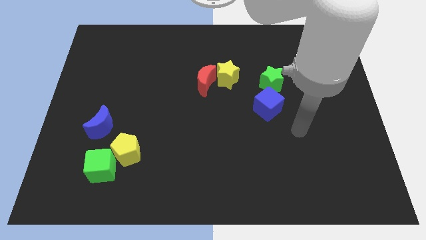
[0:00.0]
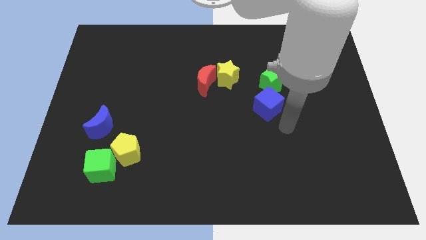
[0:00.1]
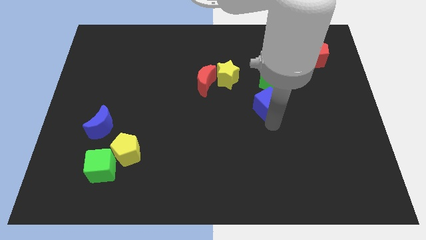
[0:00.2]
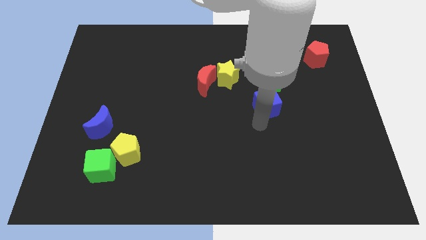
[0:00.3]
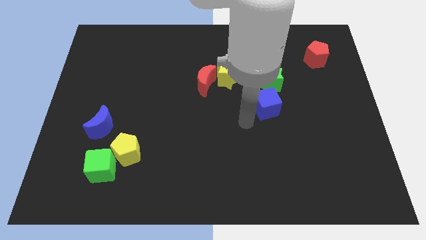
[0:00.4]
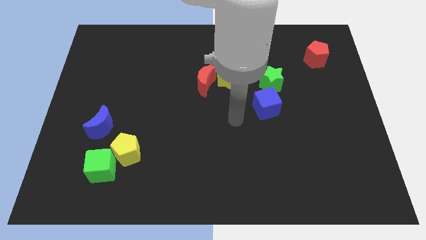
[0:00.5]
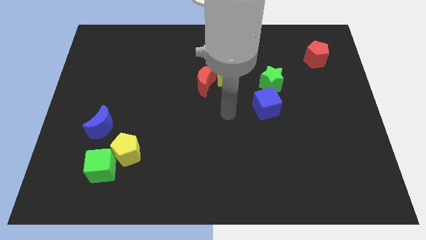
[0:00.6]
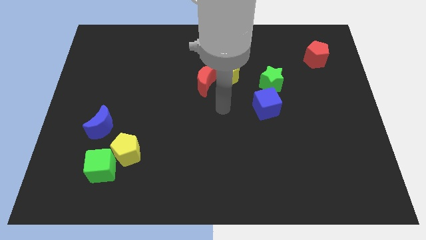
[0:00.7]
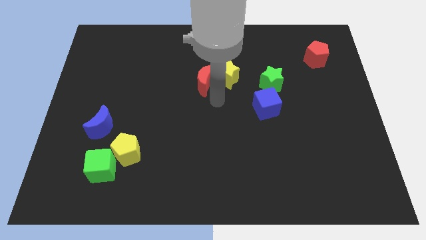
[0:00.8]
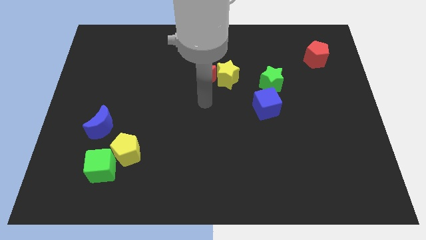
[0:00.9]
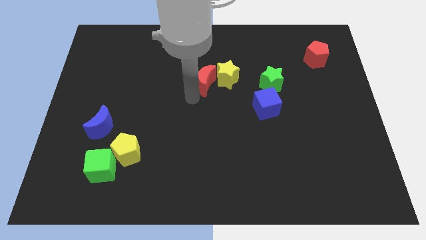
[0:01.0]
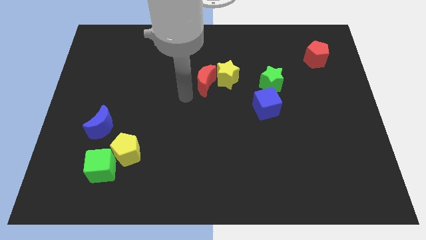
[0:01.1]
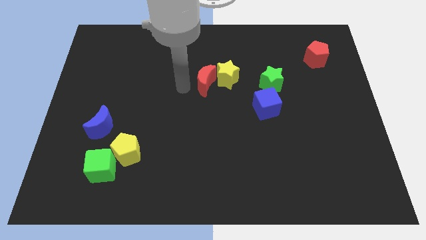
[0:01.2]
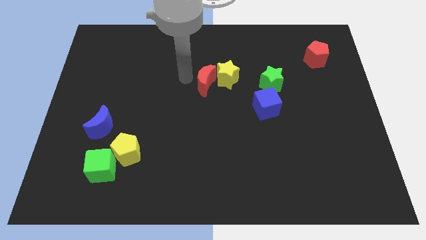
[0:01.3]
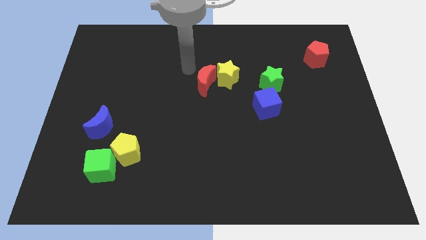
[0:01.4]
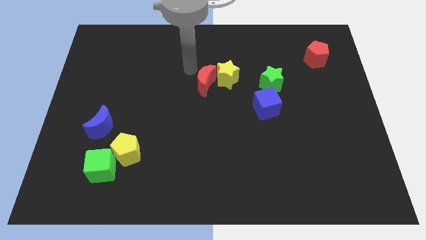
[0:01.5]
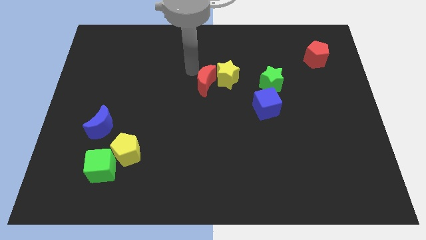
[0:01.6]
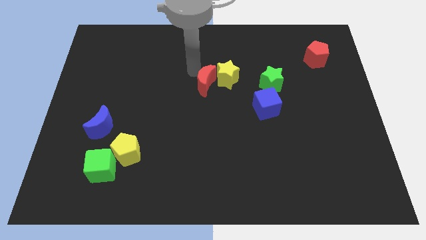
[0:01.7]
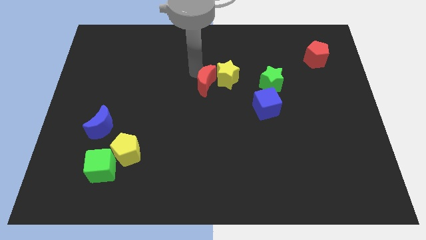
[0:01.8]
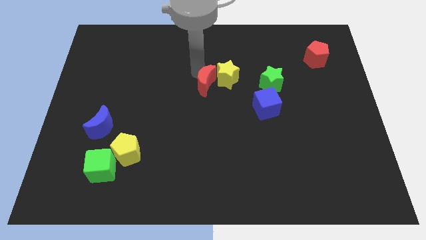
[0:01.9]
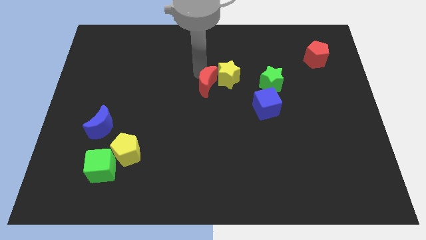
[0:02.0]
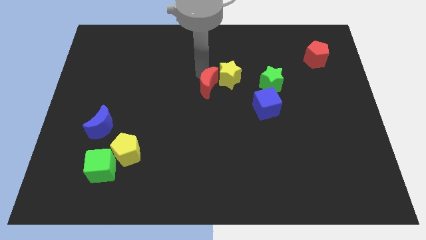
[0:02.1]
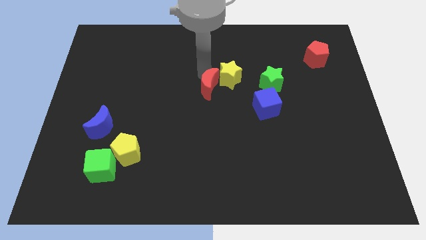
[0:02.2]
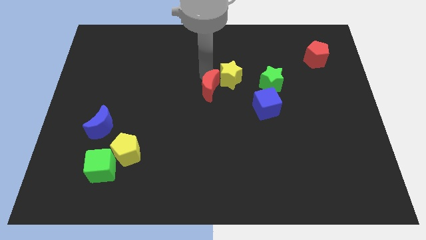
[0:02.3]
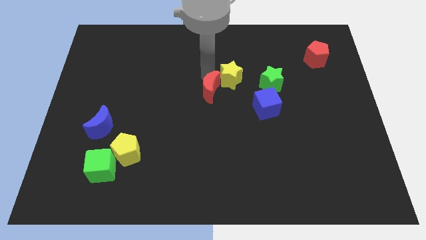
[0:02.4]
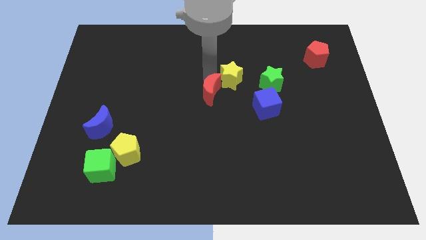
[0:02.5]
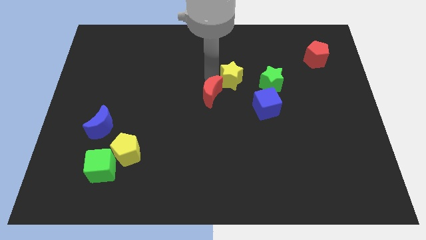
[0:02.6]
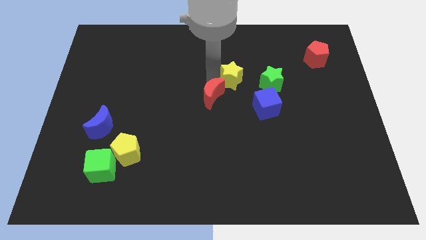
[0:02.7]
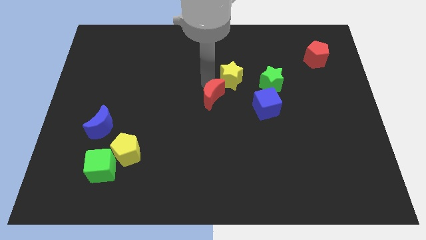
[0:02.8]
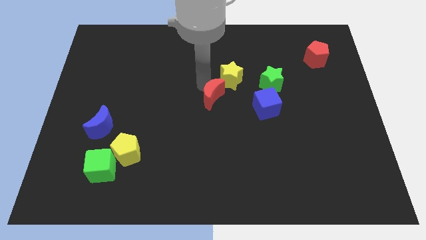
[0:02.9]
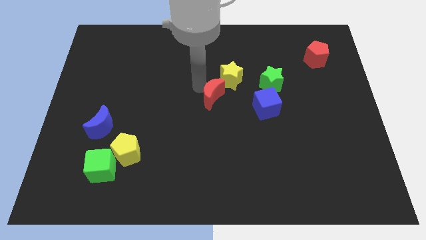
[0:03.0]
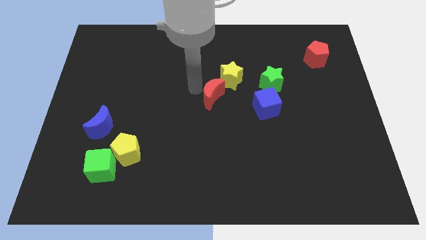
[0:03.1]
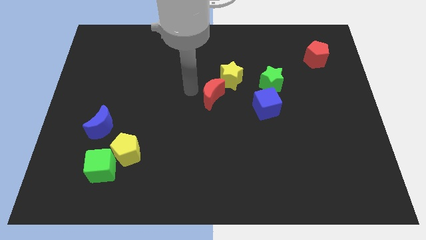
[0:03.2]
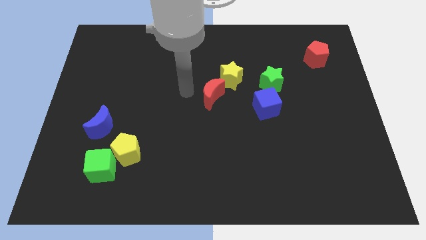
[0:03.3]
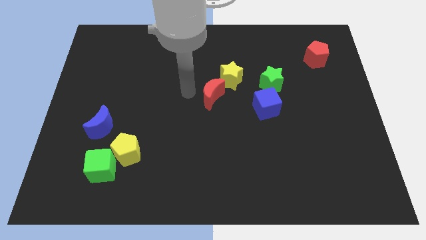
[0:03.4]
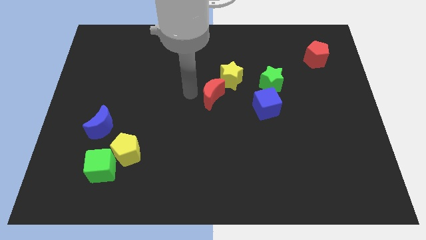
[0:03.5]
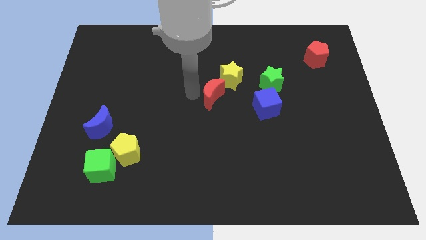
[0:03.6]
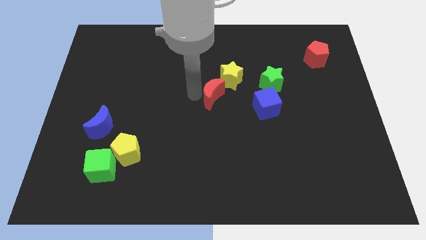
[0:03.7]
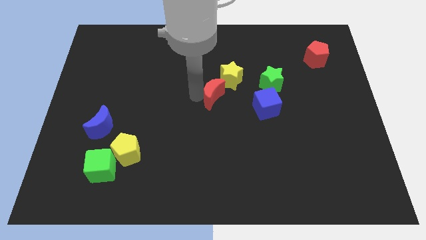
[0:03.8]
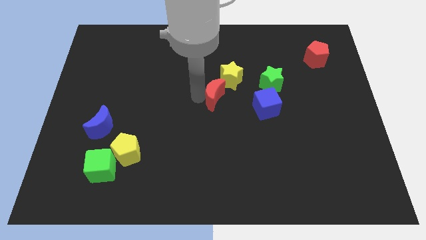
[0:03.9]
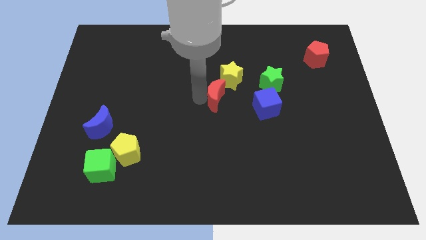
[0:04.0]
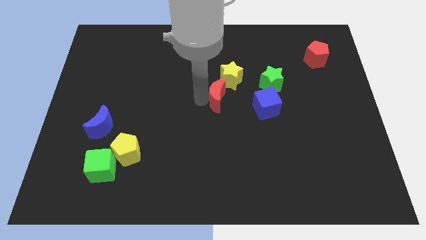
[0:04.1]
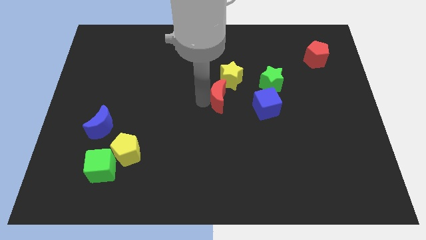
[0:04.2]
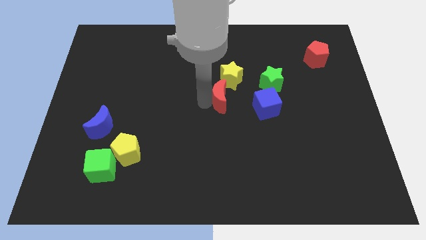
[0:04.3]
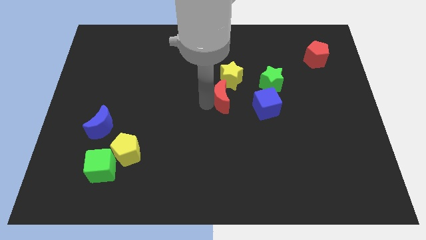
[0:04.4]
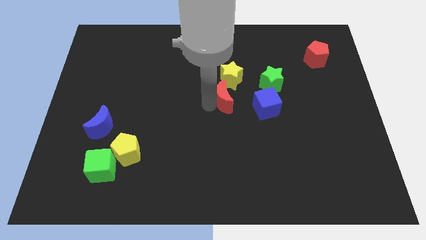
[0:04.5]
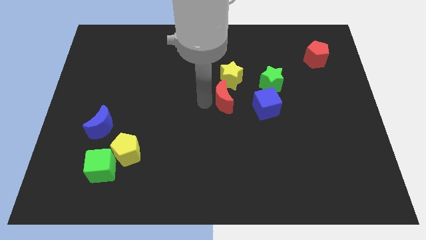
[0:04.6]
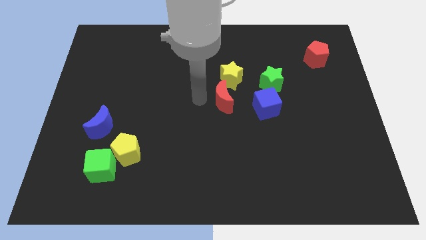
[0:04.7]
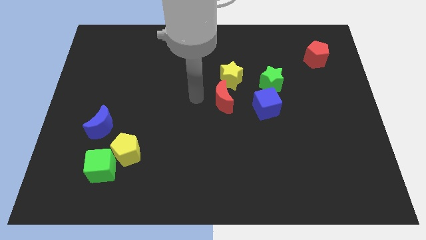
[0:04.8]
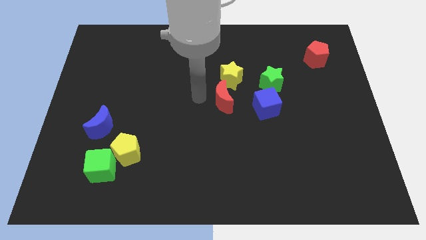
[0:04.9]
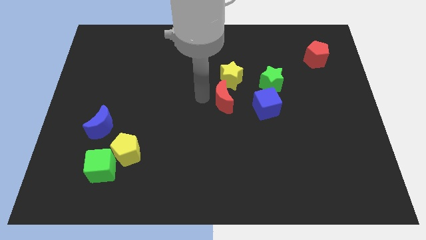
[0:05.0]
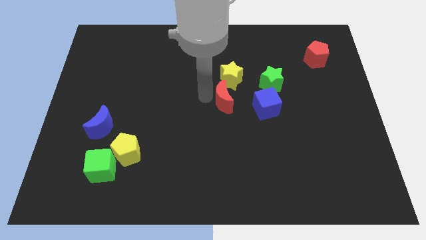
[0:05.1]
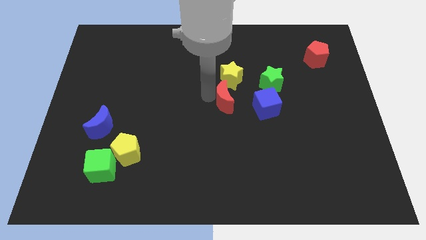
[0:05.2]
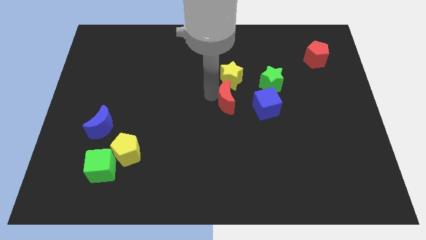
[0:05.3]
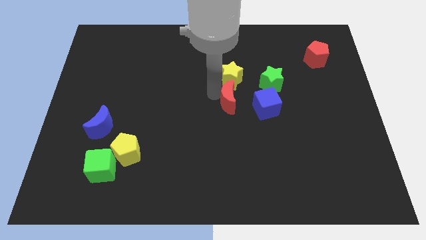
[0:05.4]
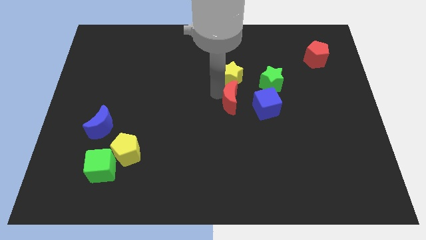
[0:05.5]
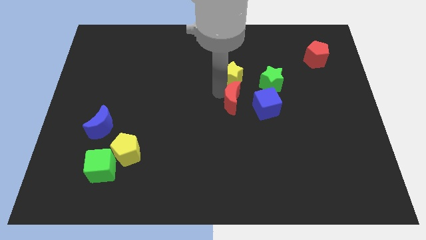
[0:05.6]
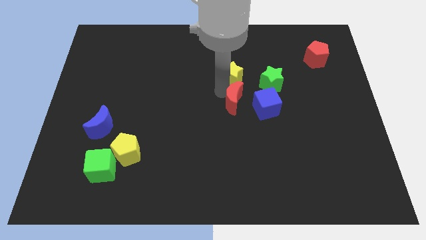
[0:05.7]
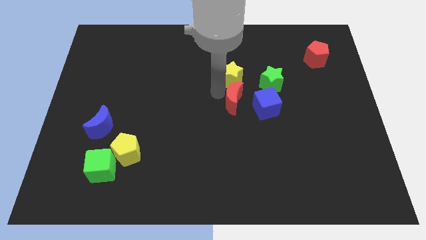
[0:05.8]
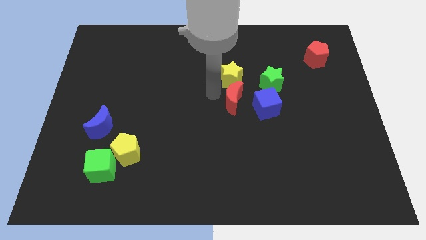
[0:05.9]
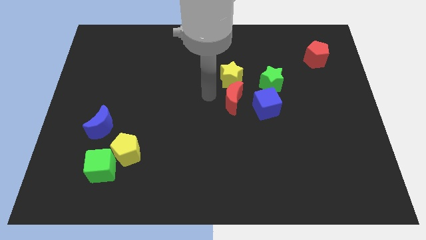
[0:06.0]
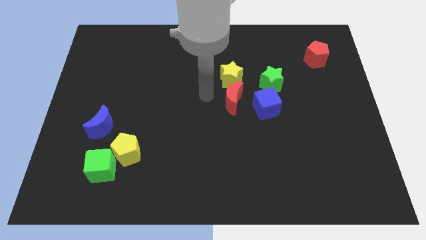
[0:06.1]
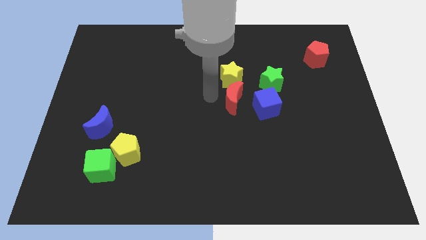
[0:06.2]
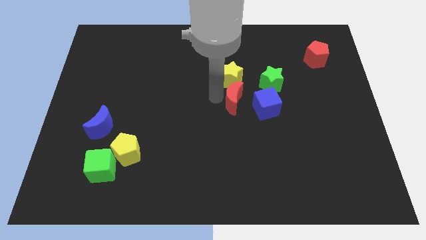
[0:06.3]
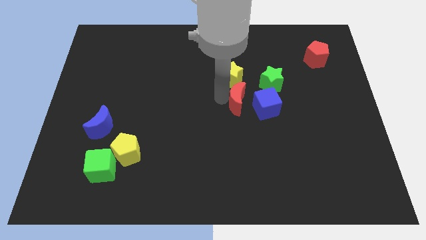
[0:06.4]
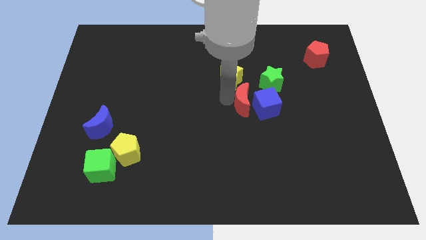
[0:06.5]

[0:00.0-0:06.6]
put the red moon close to the blue cube

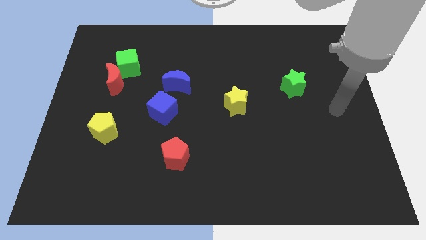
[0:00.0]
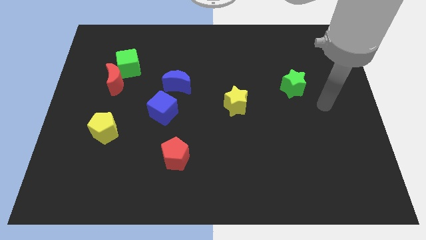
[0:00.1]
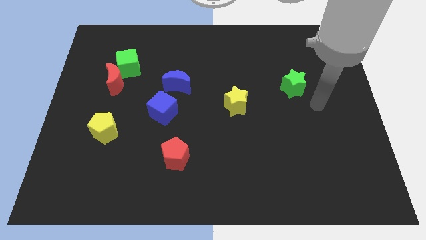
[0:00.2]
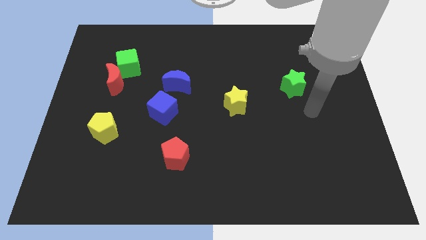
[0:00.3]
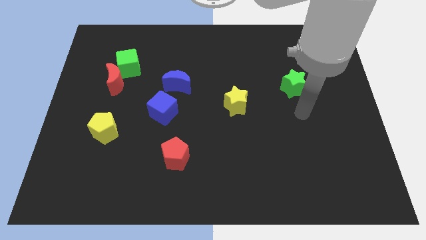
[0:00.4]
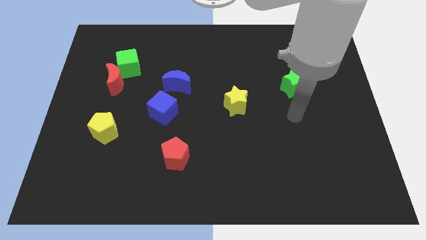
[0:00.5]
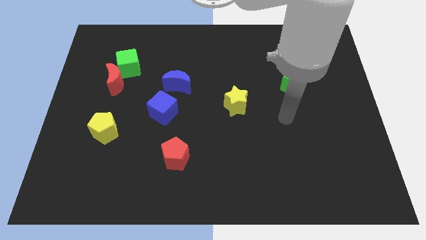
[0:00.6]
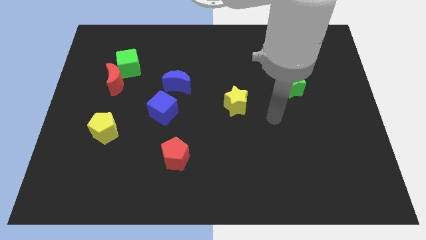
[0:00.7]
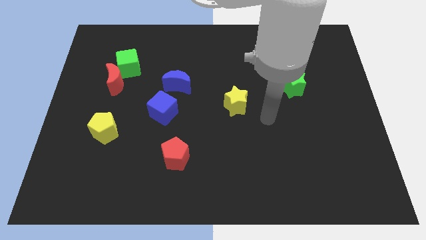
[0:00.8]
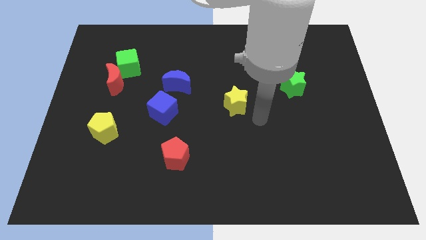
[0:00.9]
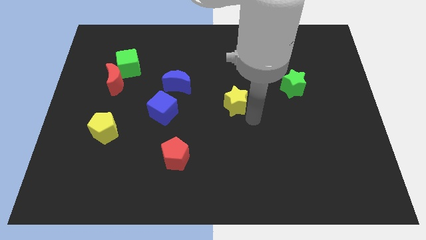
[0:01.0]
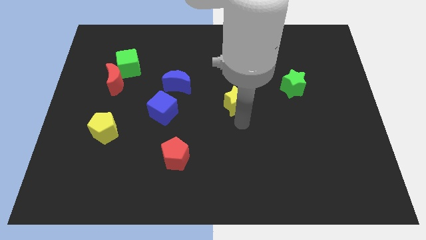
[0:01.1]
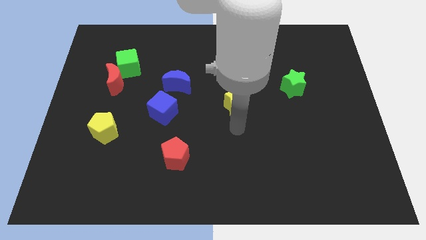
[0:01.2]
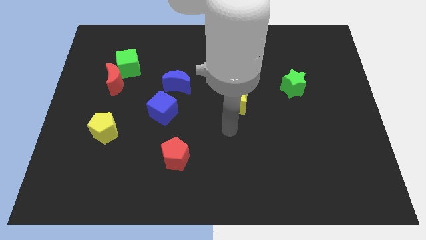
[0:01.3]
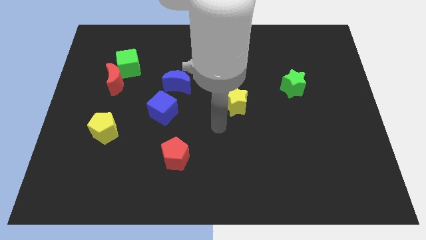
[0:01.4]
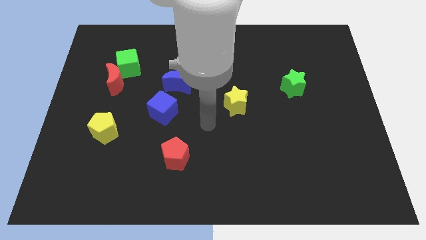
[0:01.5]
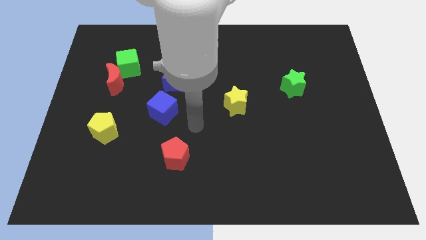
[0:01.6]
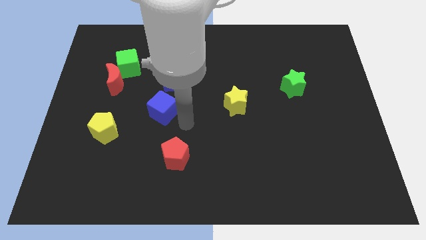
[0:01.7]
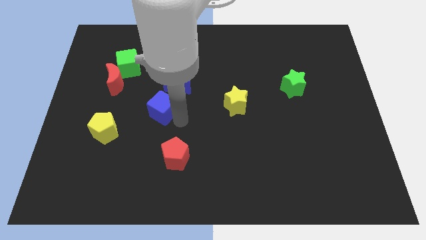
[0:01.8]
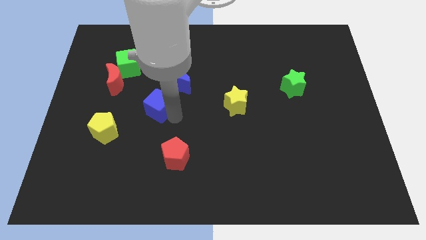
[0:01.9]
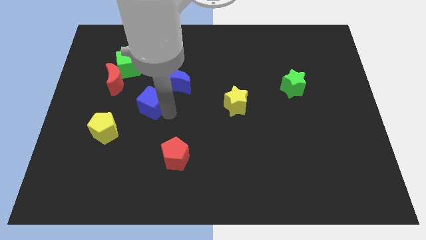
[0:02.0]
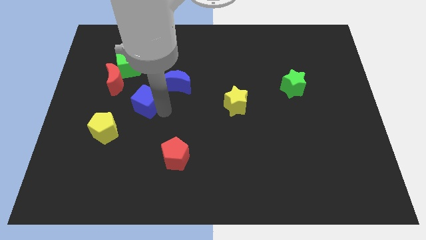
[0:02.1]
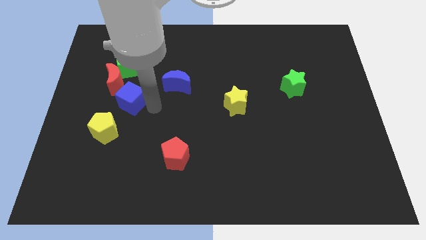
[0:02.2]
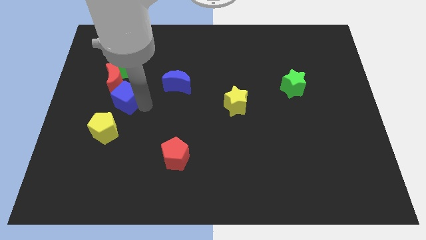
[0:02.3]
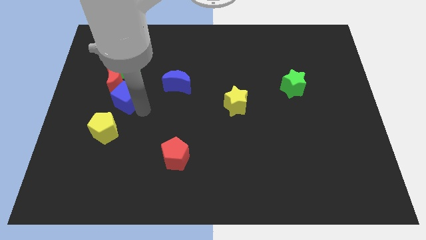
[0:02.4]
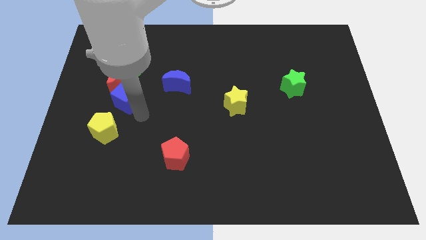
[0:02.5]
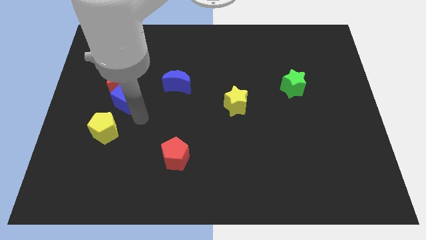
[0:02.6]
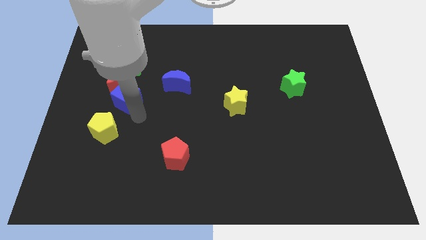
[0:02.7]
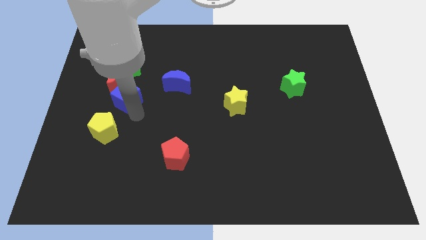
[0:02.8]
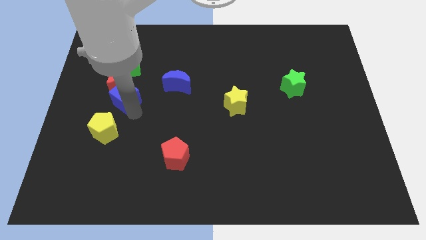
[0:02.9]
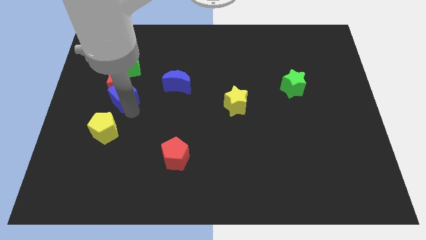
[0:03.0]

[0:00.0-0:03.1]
slide the blue cube next to the red moon
